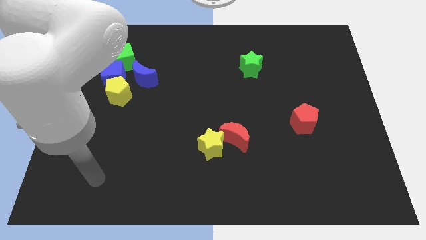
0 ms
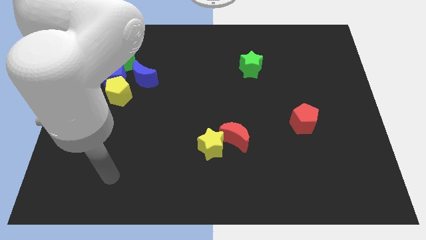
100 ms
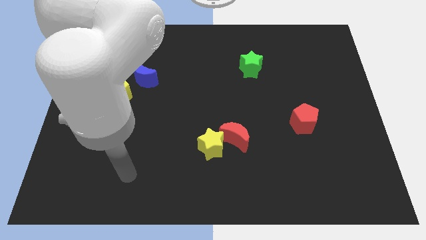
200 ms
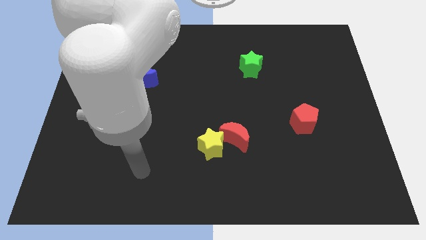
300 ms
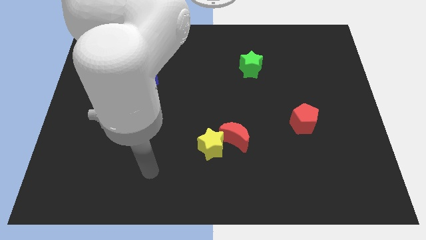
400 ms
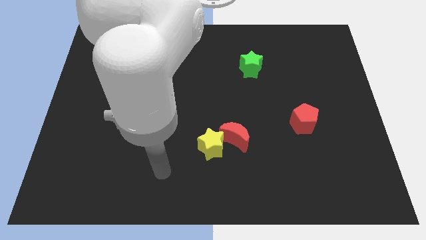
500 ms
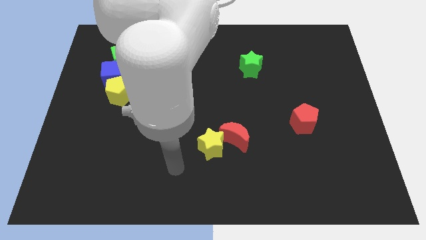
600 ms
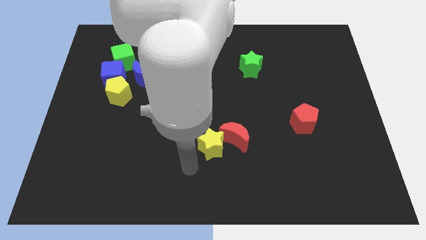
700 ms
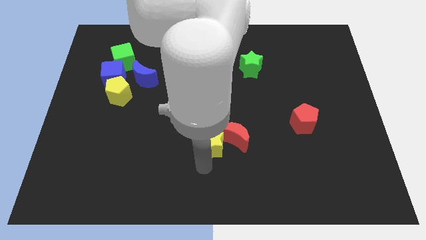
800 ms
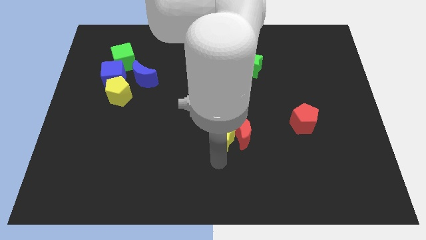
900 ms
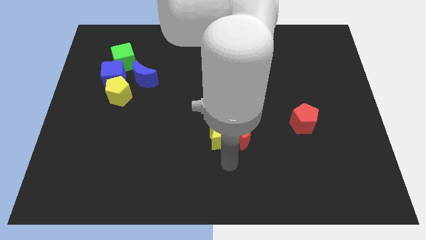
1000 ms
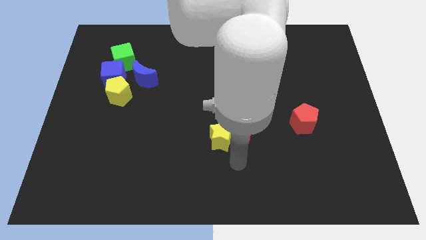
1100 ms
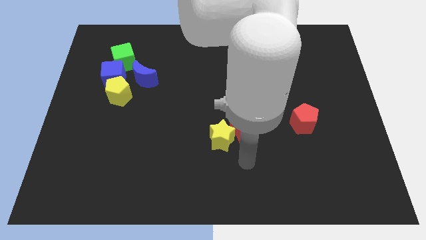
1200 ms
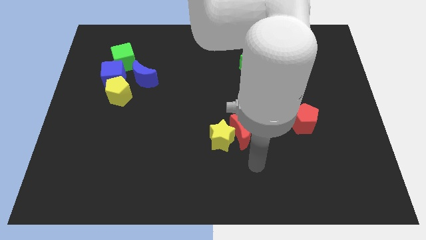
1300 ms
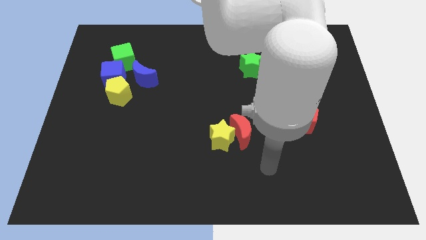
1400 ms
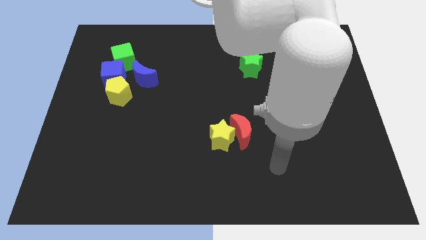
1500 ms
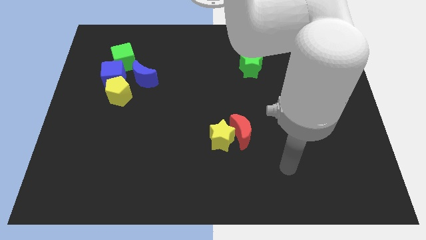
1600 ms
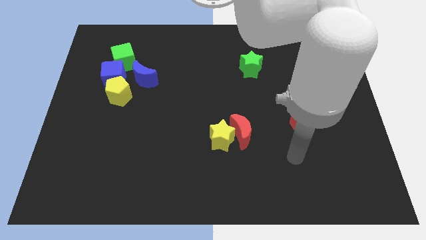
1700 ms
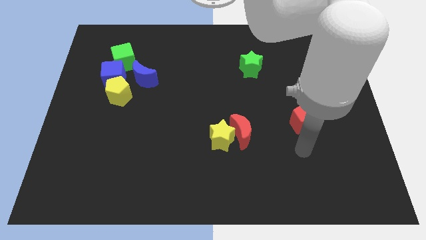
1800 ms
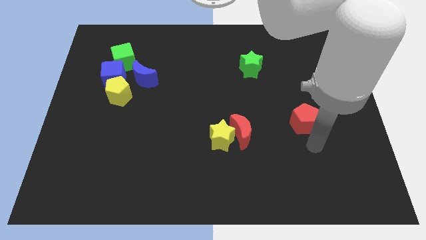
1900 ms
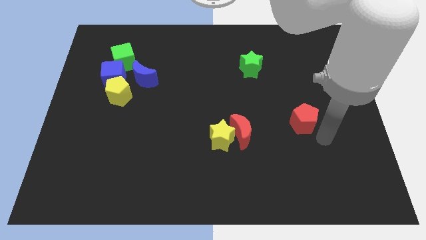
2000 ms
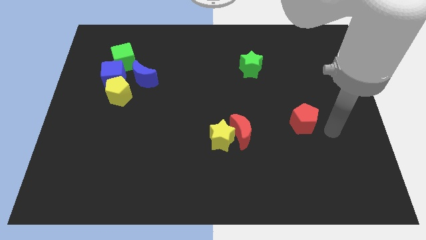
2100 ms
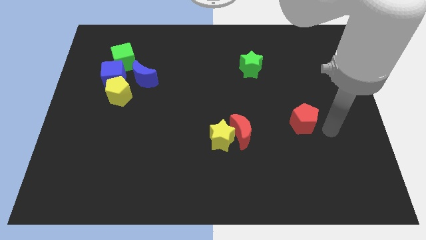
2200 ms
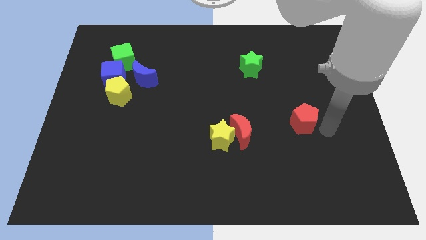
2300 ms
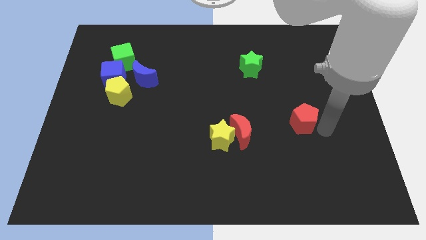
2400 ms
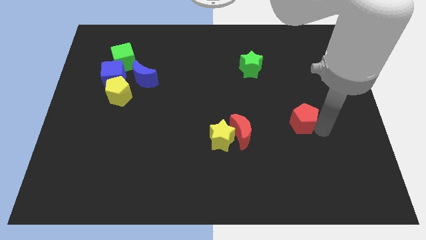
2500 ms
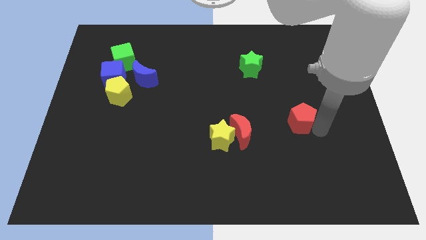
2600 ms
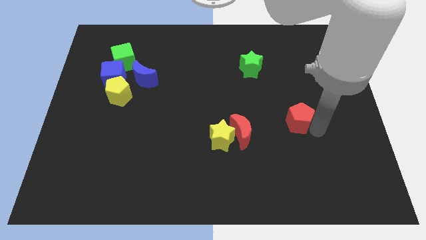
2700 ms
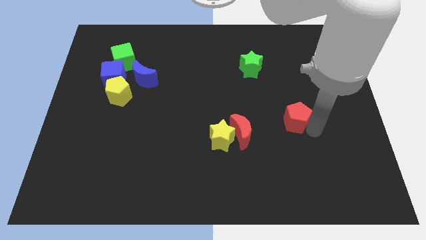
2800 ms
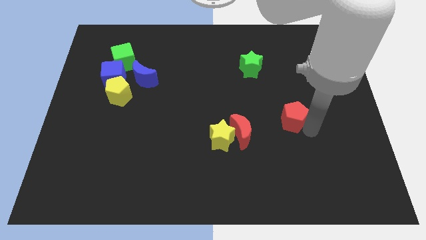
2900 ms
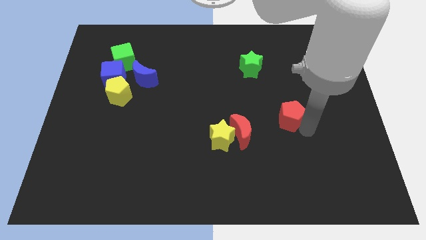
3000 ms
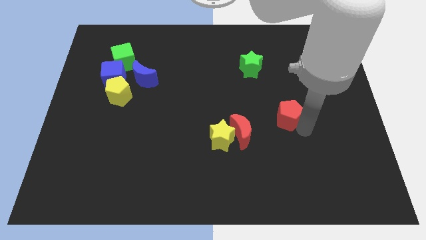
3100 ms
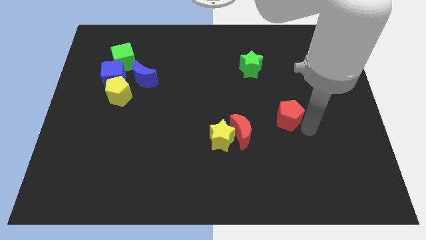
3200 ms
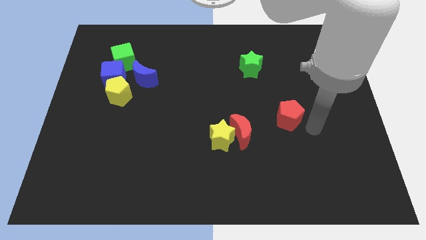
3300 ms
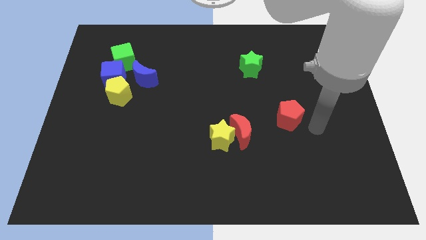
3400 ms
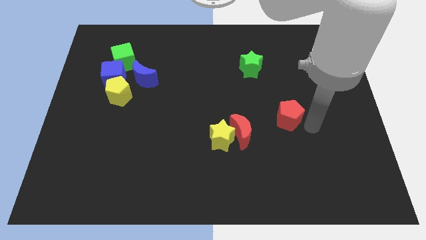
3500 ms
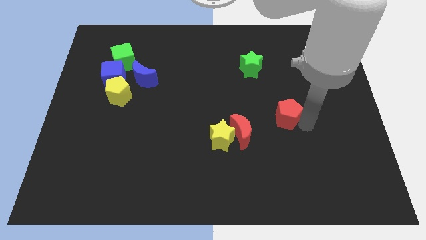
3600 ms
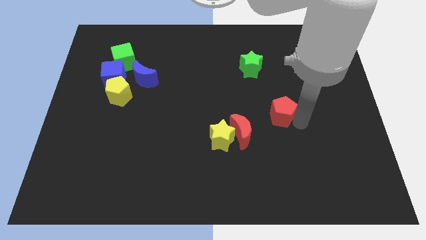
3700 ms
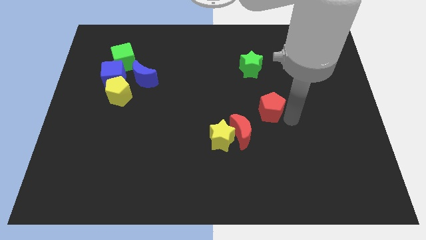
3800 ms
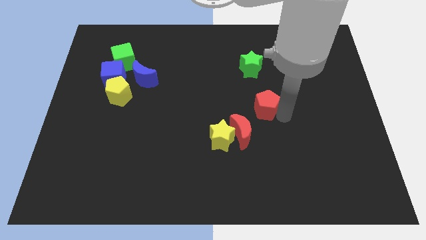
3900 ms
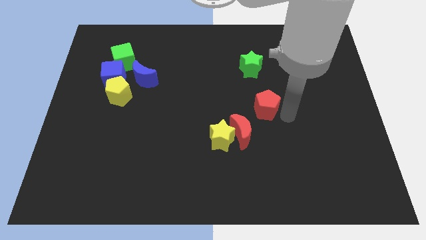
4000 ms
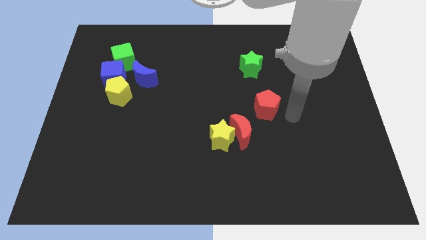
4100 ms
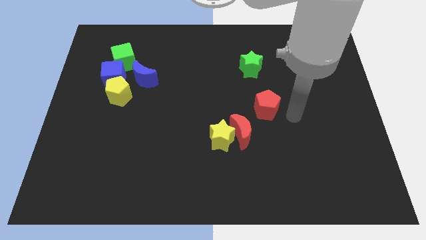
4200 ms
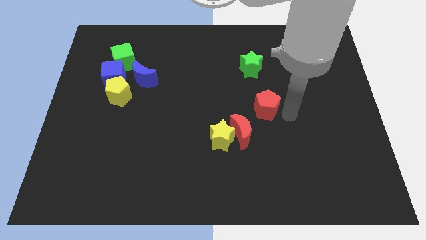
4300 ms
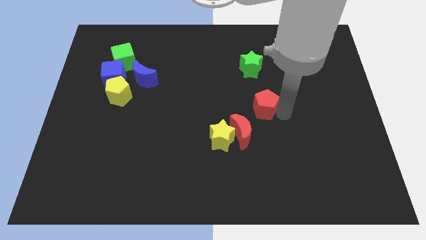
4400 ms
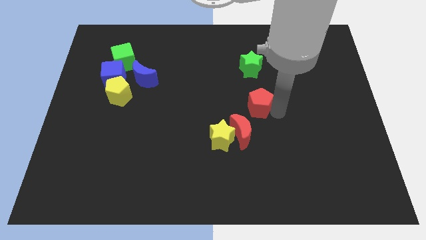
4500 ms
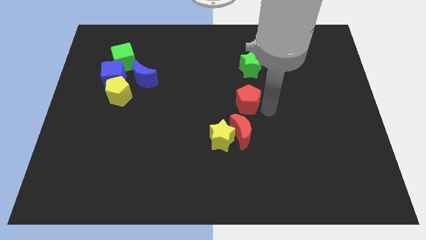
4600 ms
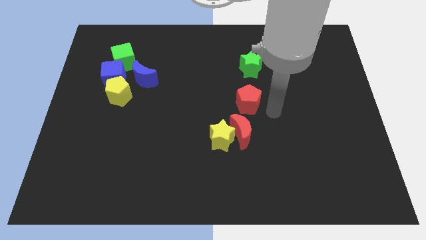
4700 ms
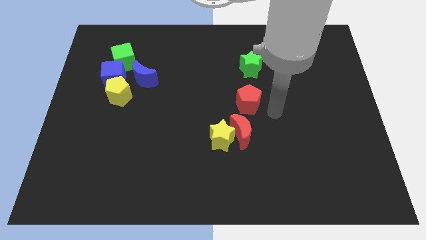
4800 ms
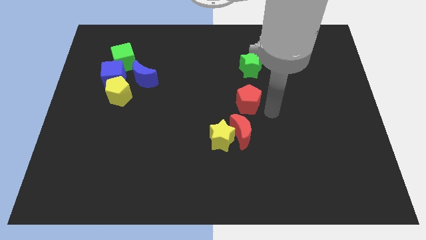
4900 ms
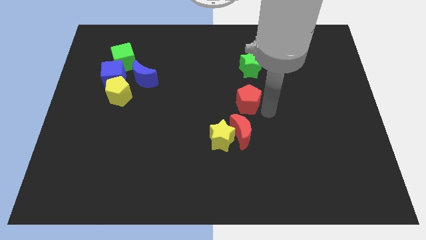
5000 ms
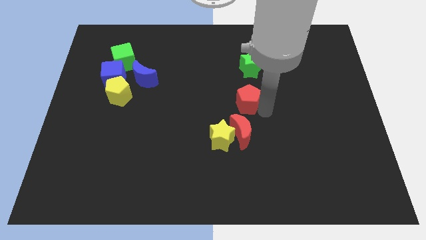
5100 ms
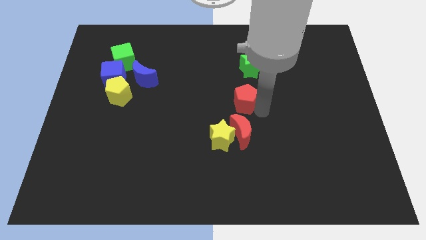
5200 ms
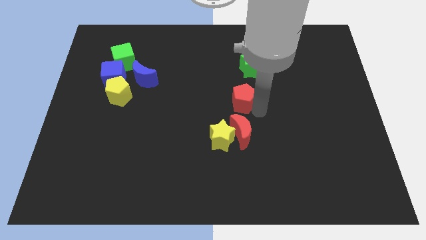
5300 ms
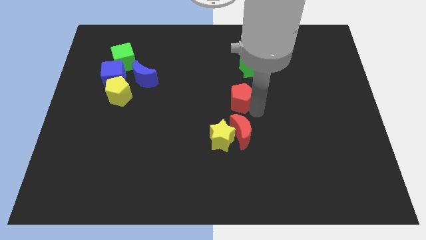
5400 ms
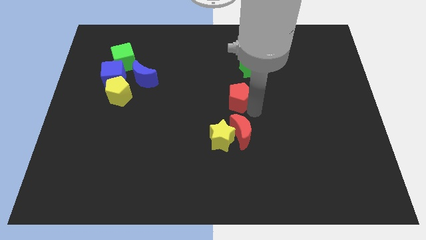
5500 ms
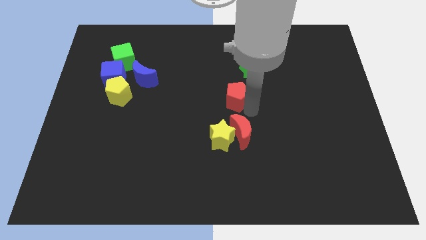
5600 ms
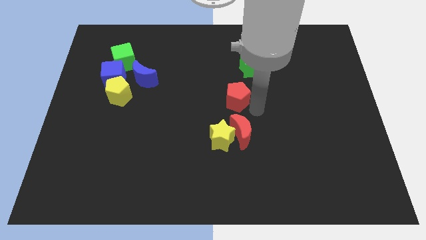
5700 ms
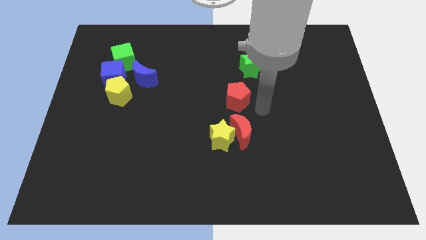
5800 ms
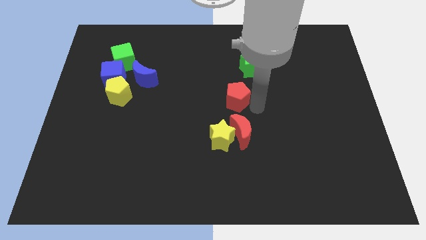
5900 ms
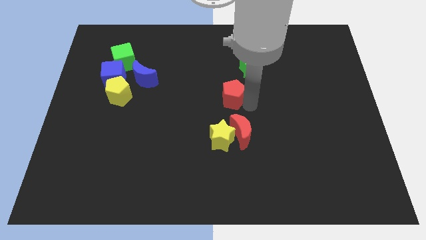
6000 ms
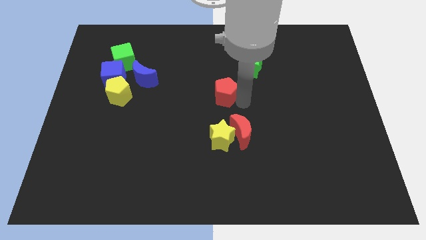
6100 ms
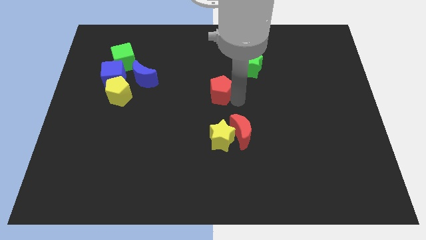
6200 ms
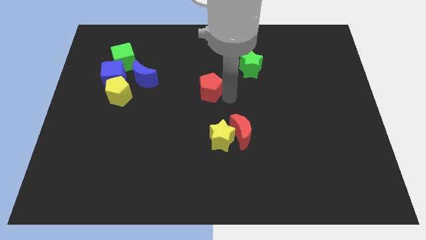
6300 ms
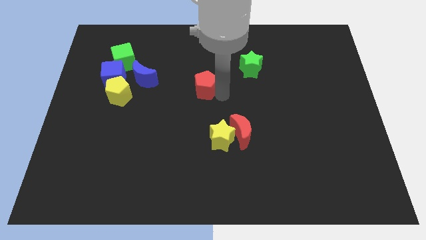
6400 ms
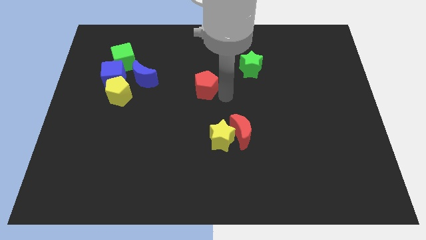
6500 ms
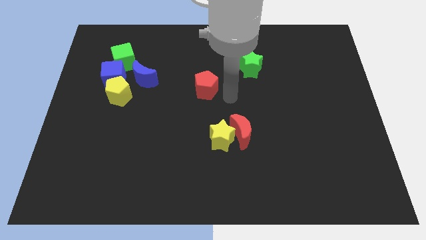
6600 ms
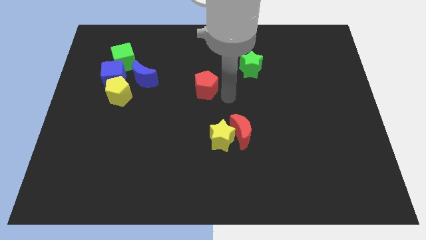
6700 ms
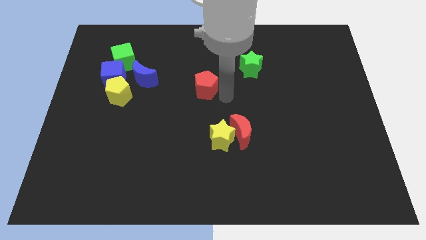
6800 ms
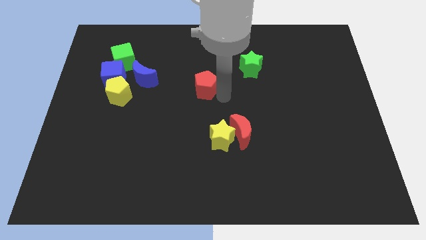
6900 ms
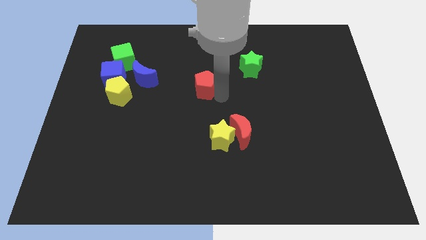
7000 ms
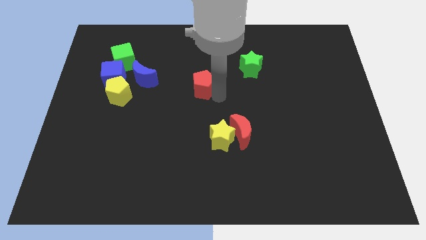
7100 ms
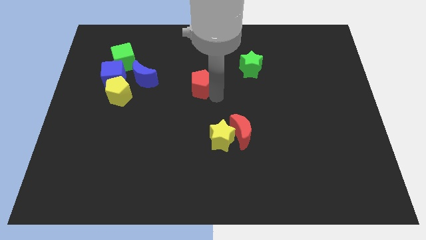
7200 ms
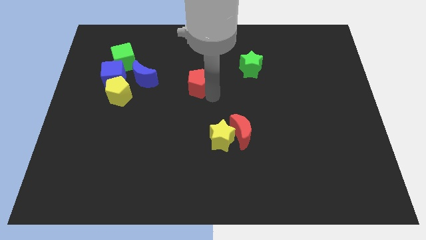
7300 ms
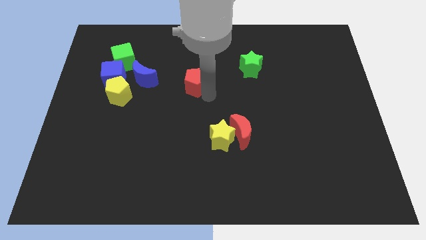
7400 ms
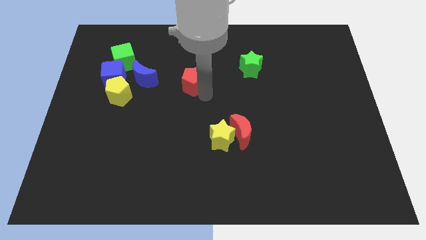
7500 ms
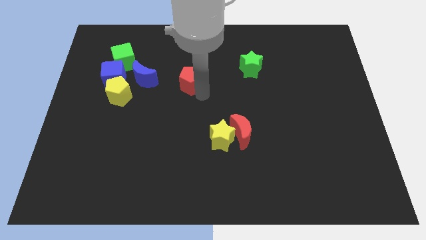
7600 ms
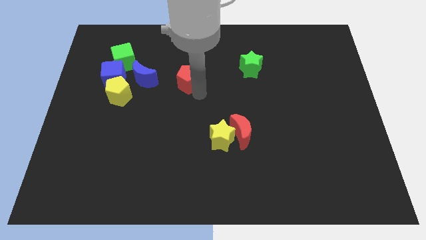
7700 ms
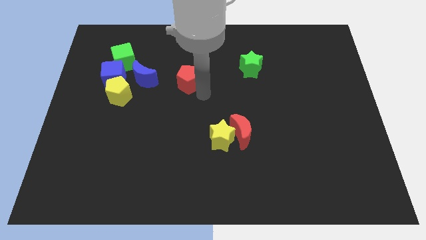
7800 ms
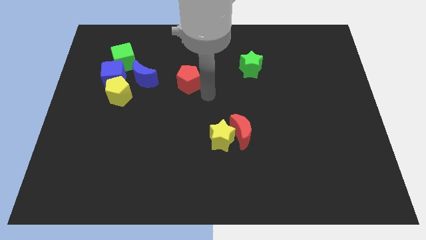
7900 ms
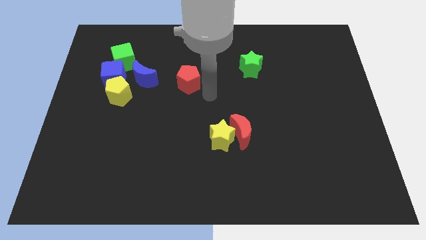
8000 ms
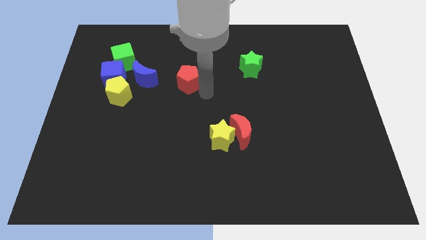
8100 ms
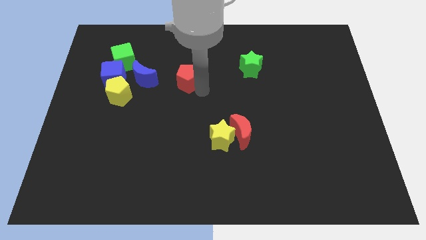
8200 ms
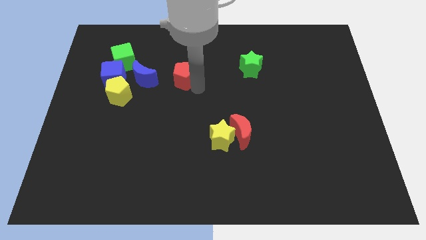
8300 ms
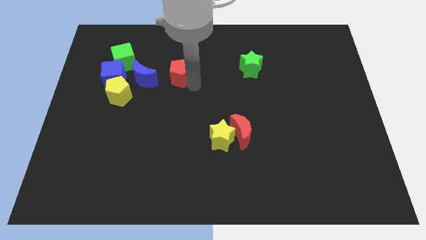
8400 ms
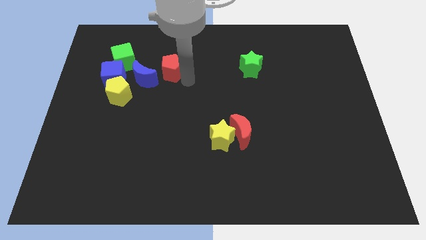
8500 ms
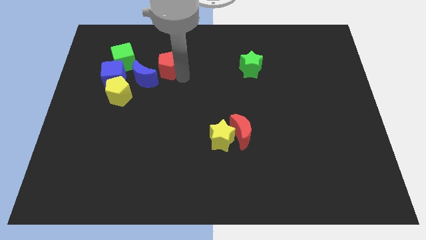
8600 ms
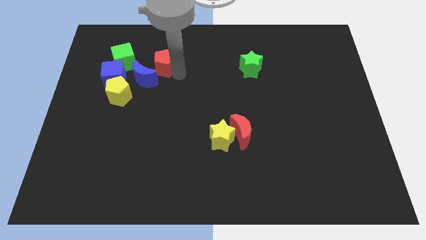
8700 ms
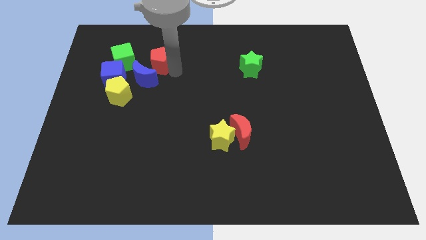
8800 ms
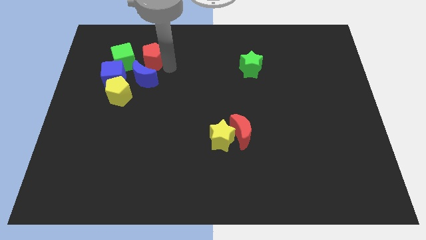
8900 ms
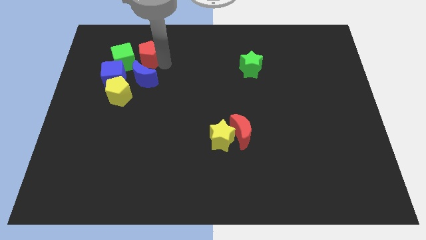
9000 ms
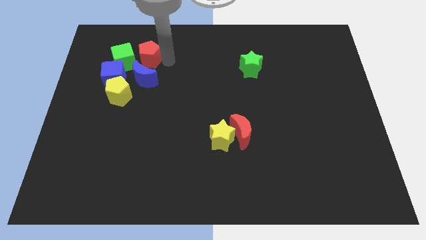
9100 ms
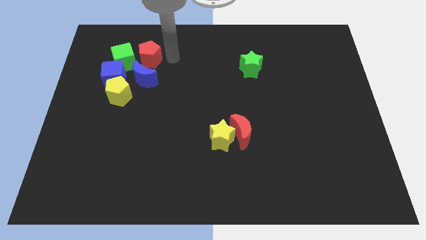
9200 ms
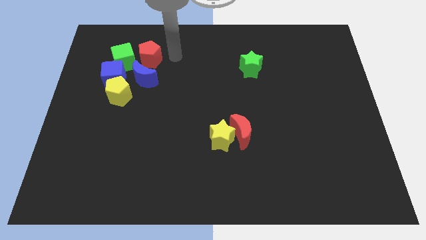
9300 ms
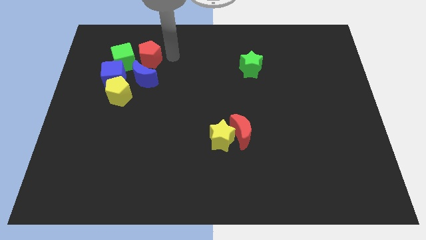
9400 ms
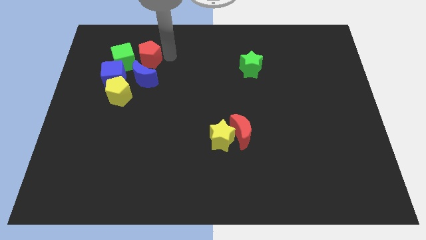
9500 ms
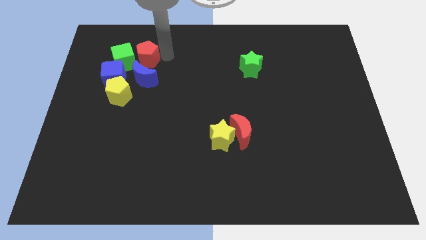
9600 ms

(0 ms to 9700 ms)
push the red pentagon close to the green cube
